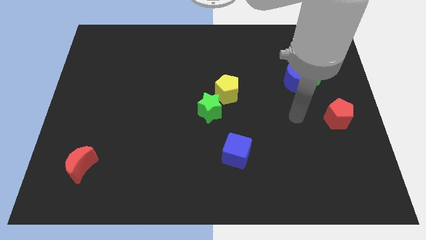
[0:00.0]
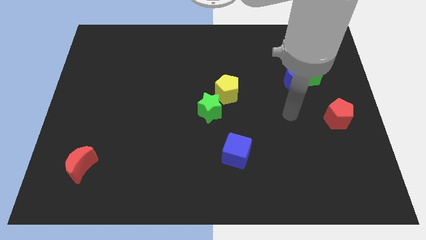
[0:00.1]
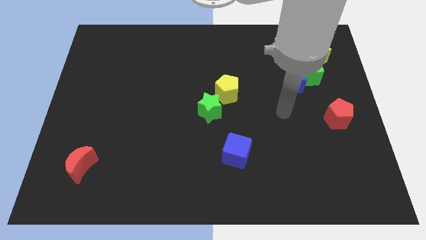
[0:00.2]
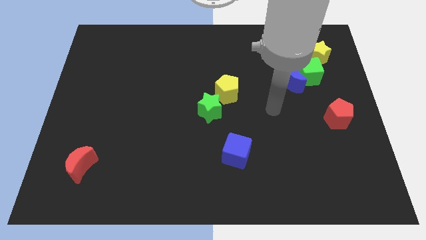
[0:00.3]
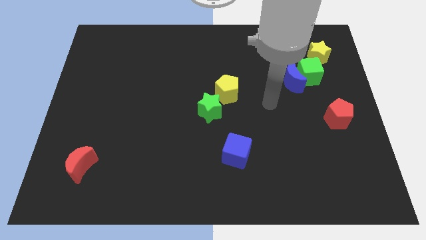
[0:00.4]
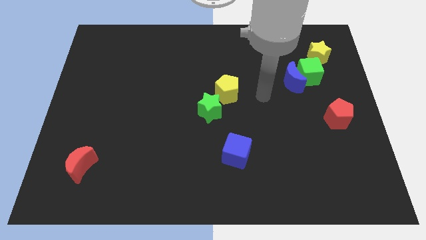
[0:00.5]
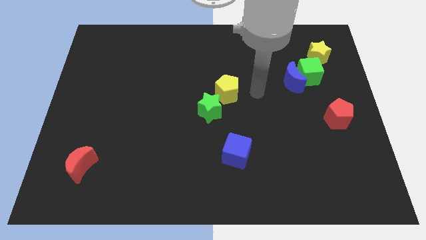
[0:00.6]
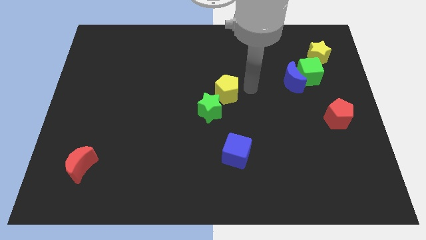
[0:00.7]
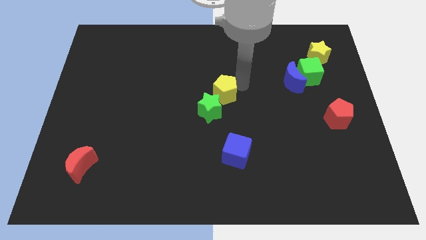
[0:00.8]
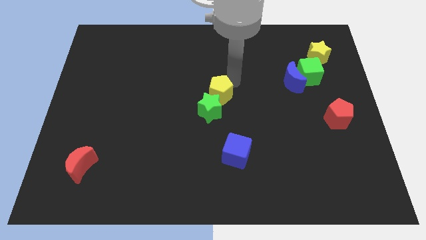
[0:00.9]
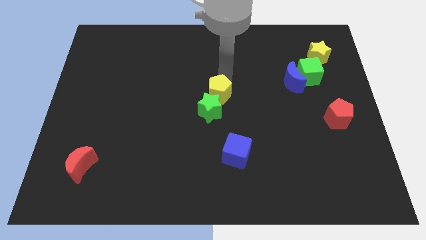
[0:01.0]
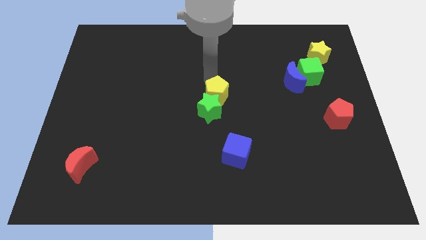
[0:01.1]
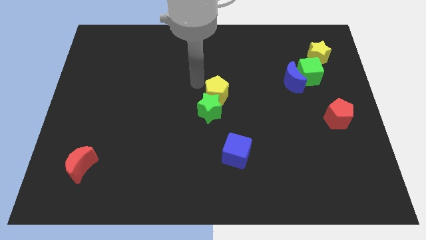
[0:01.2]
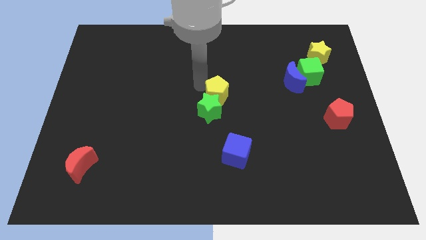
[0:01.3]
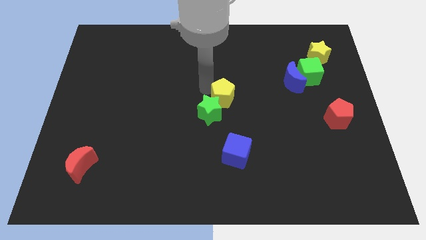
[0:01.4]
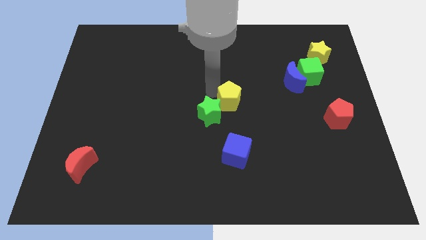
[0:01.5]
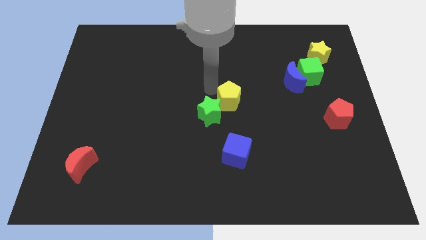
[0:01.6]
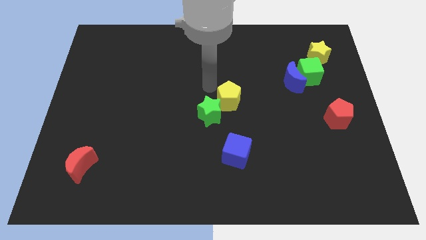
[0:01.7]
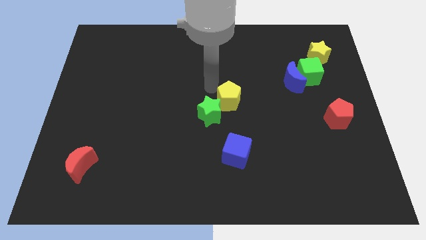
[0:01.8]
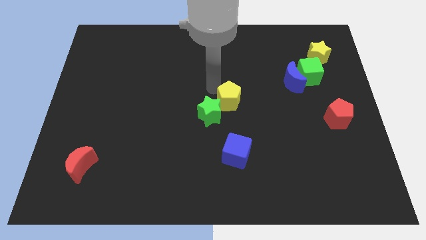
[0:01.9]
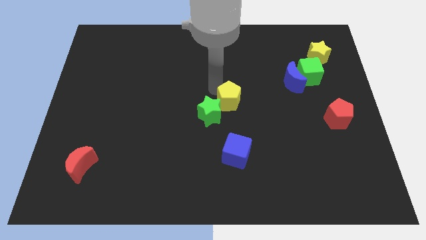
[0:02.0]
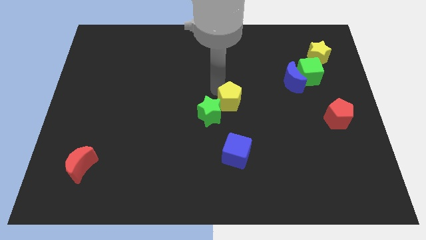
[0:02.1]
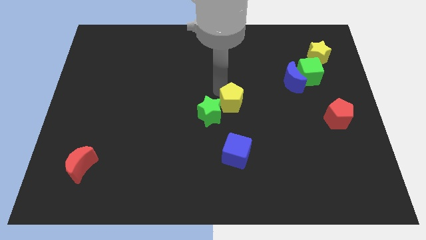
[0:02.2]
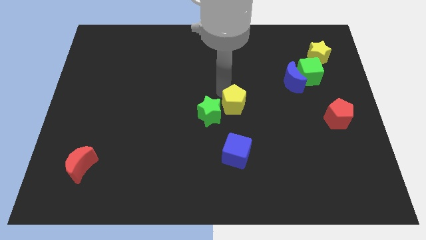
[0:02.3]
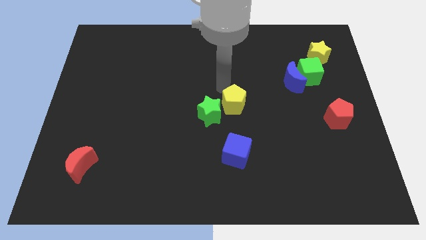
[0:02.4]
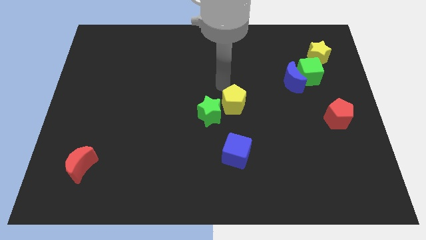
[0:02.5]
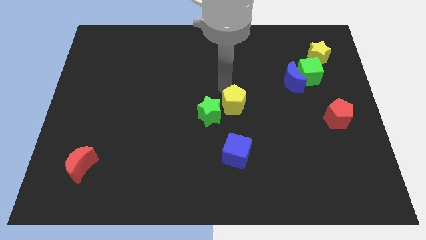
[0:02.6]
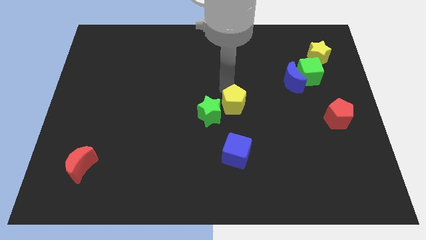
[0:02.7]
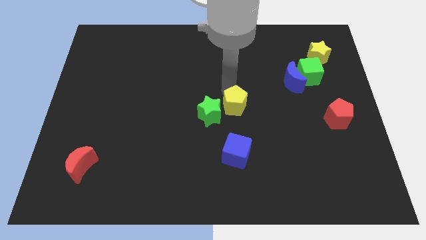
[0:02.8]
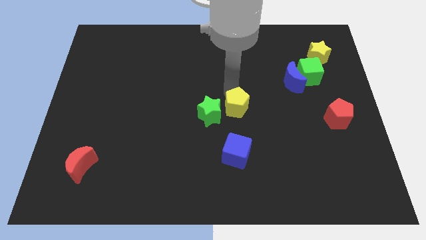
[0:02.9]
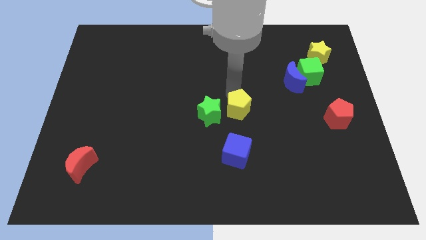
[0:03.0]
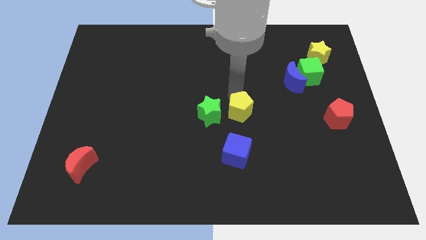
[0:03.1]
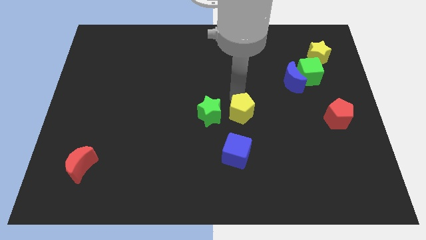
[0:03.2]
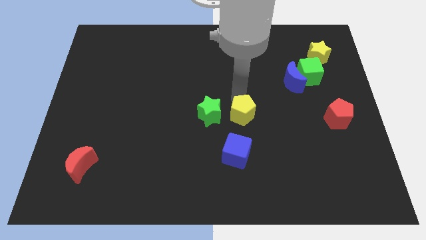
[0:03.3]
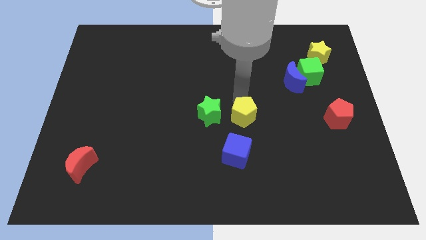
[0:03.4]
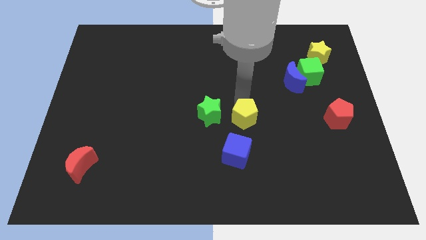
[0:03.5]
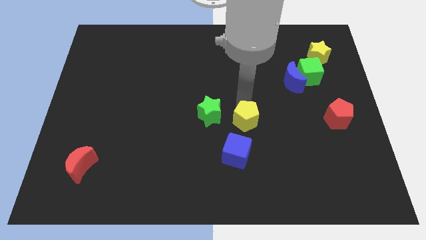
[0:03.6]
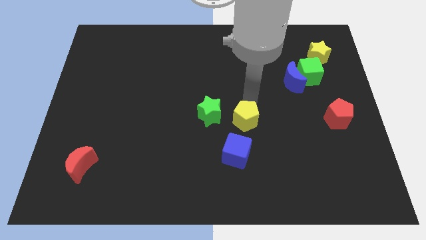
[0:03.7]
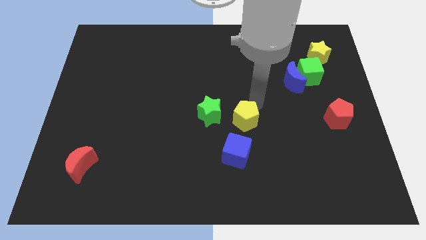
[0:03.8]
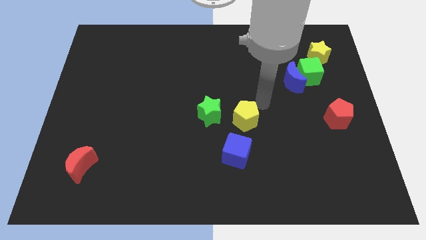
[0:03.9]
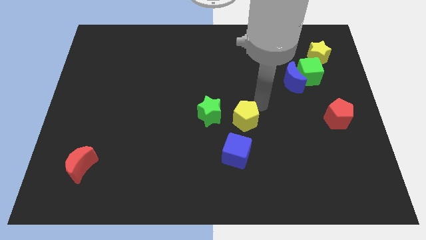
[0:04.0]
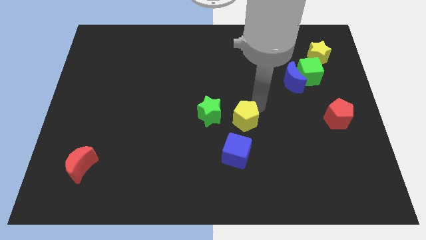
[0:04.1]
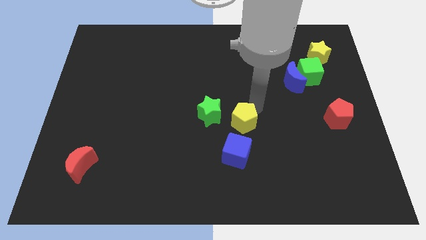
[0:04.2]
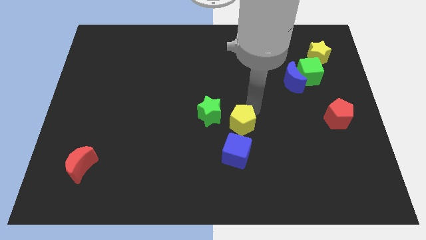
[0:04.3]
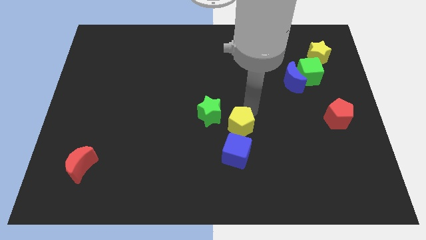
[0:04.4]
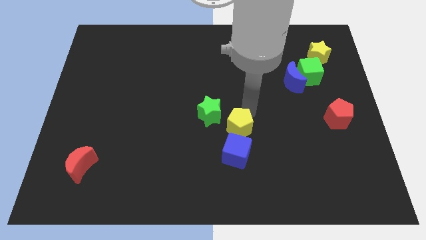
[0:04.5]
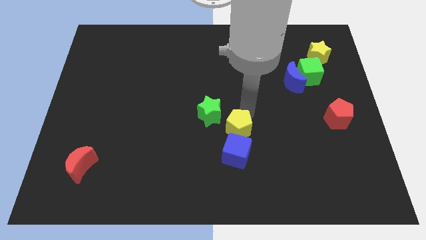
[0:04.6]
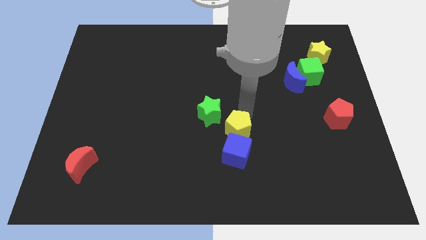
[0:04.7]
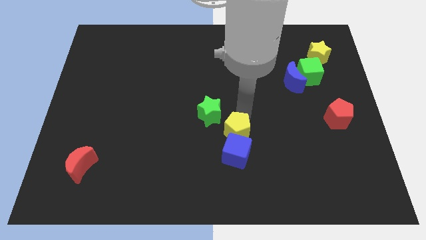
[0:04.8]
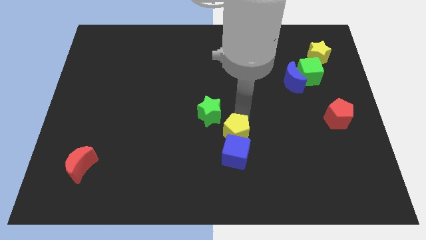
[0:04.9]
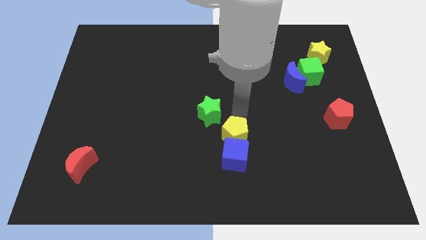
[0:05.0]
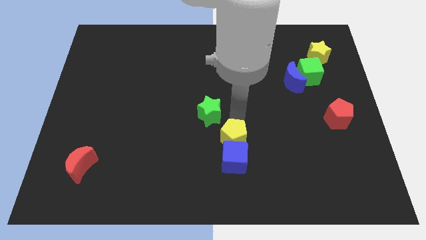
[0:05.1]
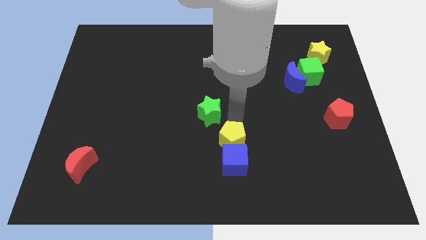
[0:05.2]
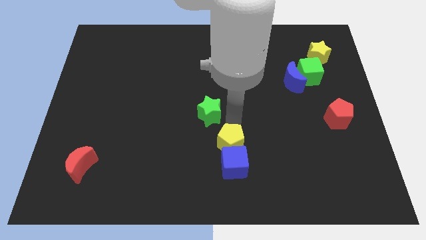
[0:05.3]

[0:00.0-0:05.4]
slide the yellow pentagon below the green star

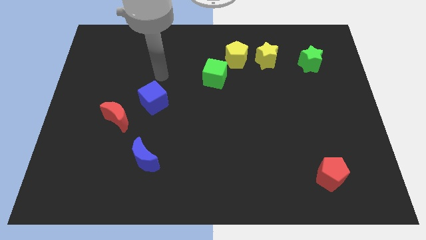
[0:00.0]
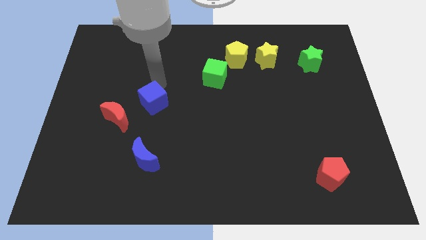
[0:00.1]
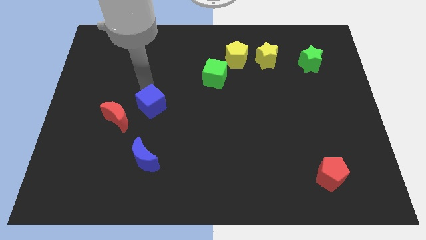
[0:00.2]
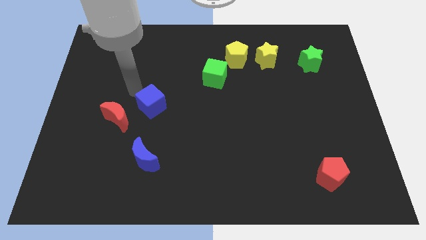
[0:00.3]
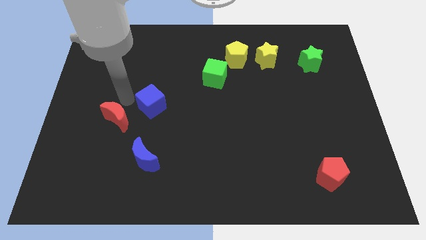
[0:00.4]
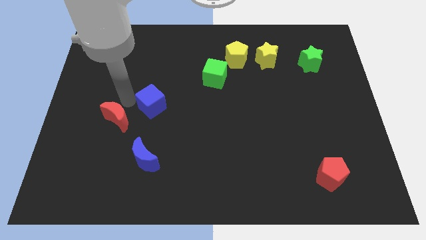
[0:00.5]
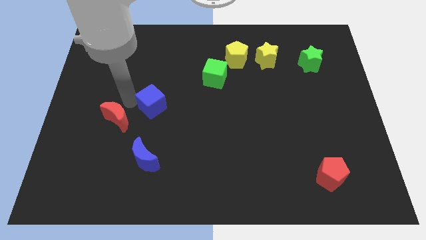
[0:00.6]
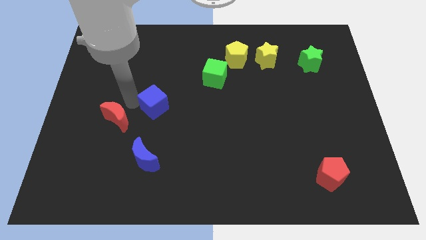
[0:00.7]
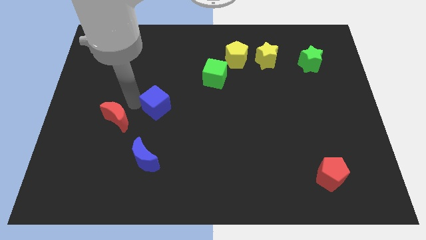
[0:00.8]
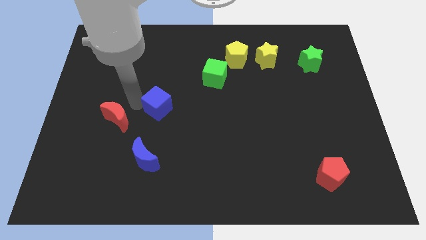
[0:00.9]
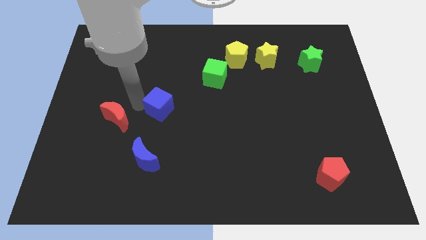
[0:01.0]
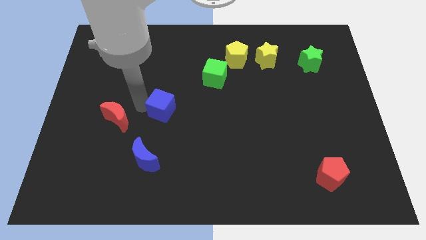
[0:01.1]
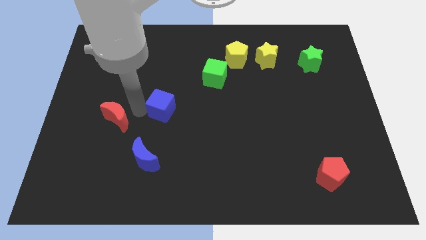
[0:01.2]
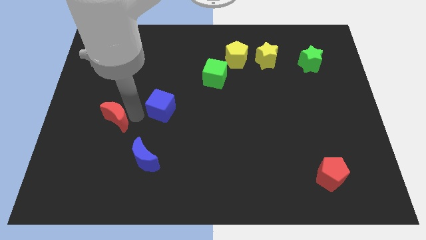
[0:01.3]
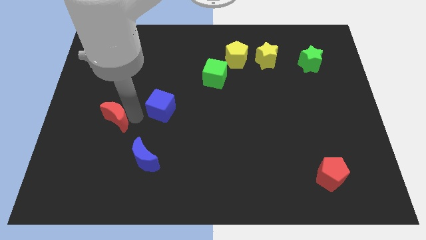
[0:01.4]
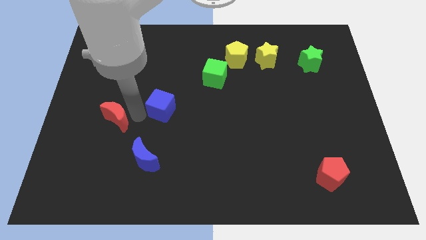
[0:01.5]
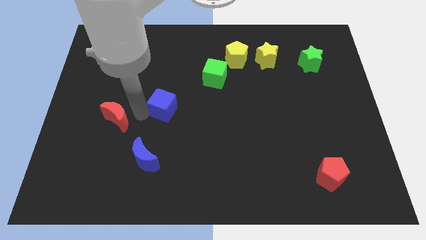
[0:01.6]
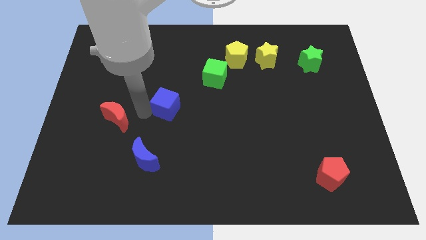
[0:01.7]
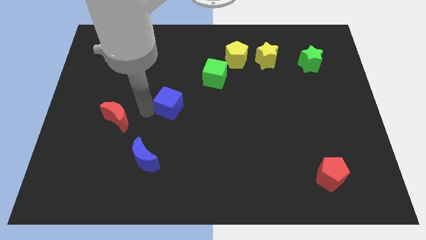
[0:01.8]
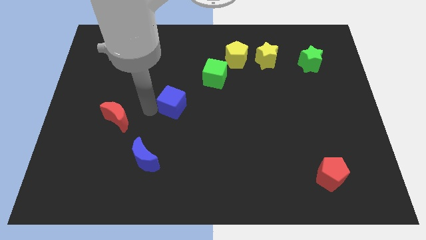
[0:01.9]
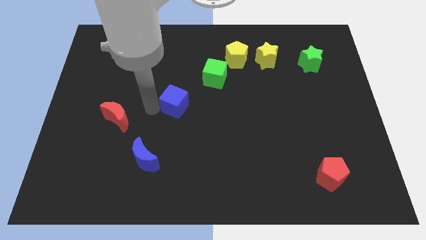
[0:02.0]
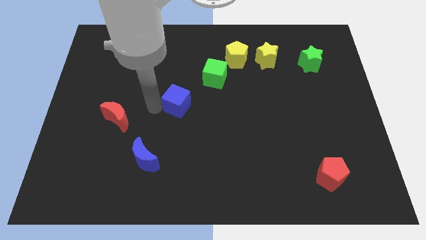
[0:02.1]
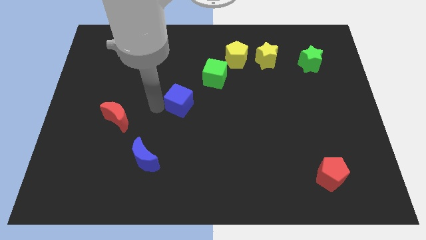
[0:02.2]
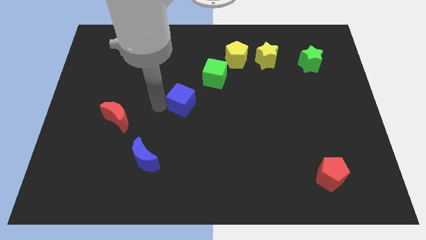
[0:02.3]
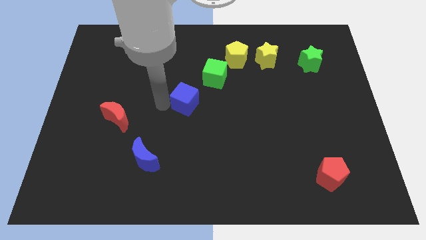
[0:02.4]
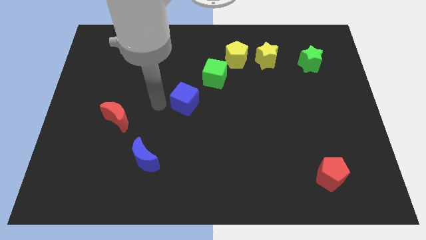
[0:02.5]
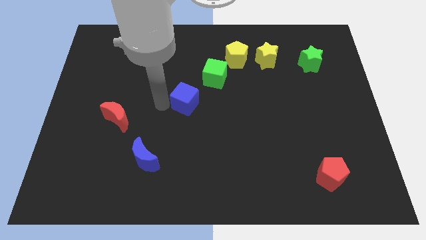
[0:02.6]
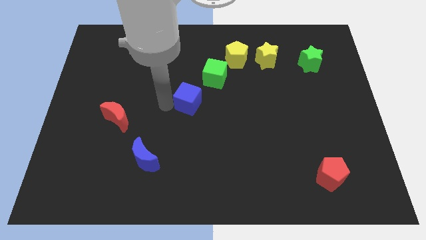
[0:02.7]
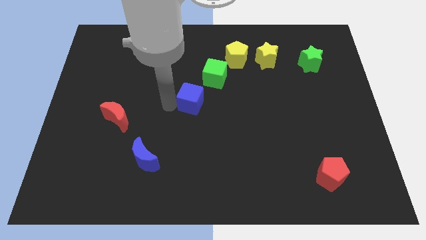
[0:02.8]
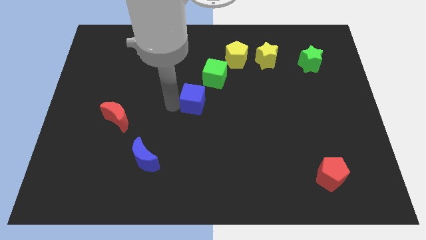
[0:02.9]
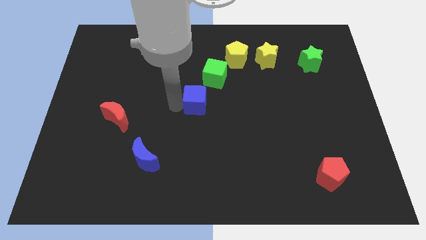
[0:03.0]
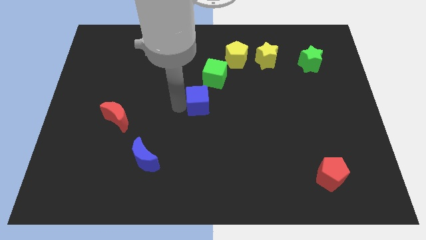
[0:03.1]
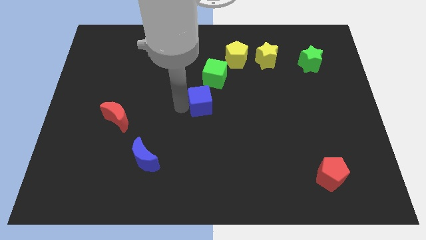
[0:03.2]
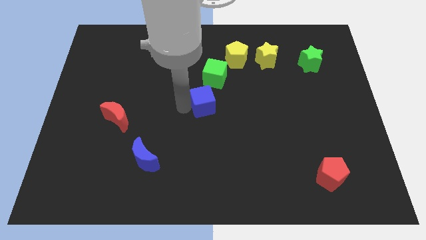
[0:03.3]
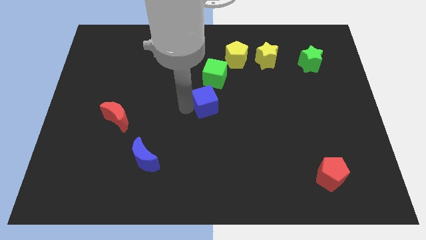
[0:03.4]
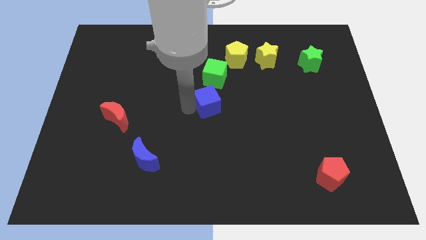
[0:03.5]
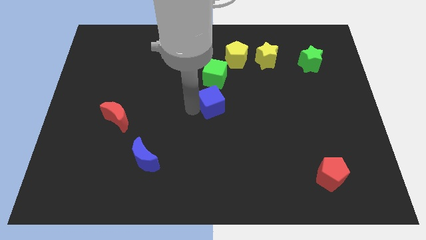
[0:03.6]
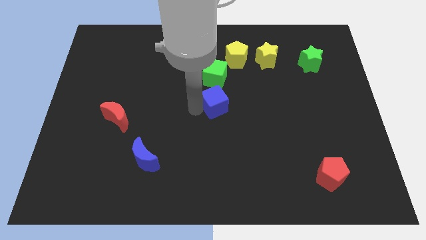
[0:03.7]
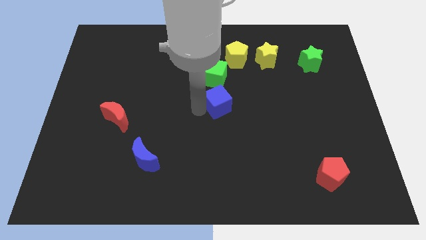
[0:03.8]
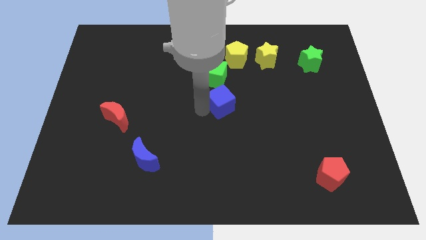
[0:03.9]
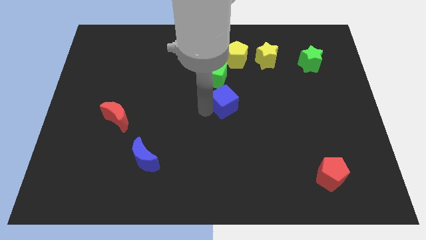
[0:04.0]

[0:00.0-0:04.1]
slide the blue cube diagonally down and to the right of the green cube
